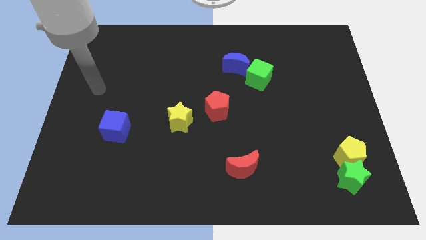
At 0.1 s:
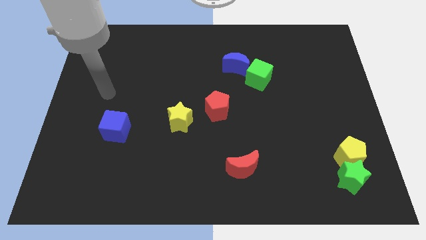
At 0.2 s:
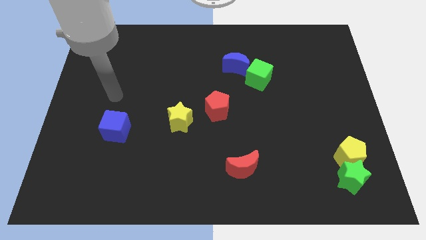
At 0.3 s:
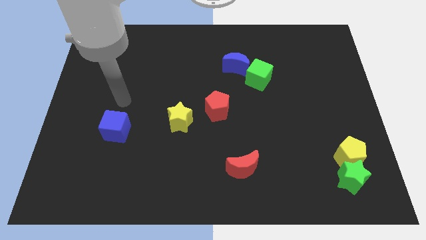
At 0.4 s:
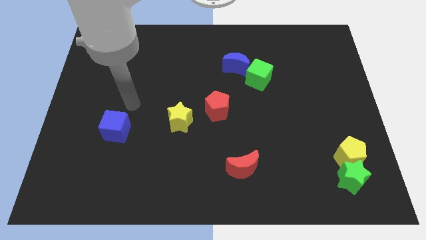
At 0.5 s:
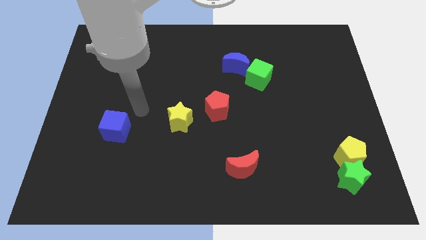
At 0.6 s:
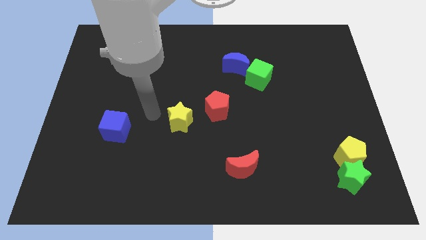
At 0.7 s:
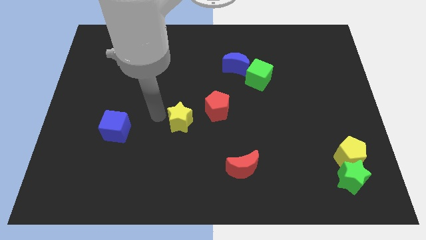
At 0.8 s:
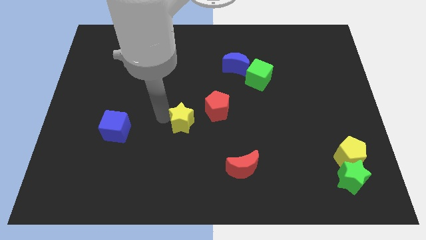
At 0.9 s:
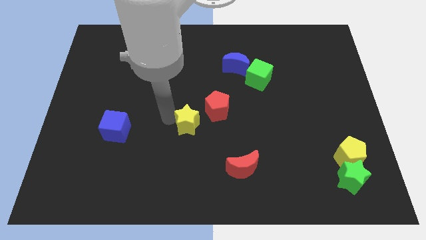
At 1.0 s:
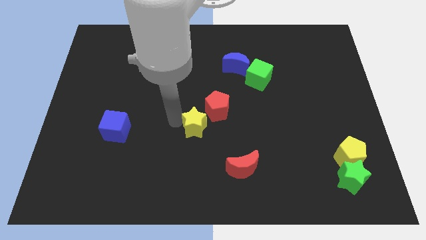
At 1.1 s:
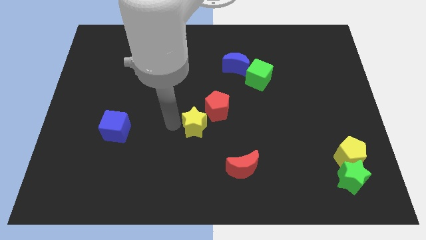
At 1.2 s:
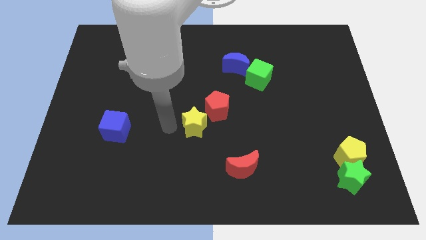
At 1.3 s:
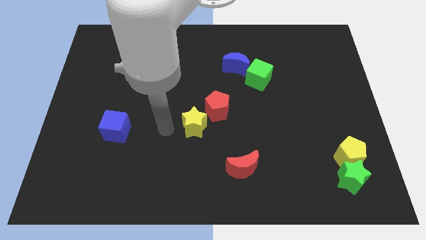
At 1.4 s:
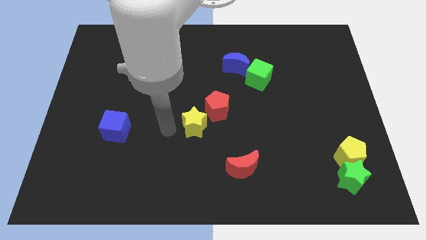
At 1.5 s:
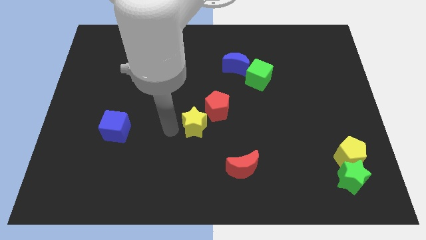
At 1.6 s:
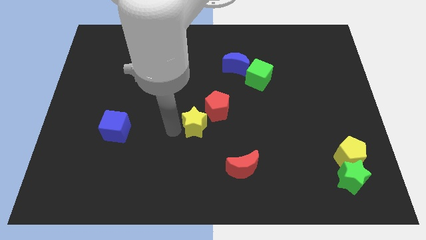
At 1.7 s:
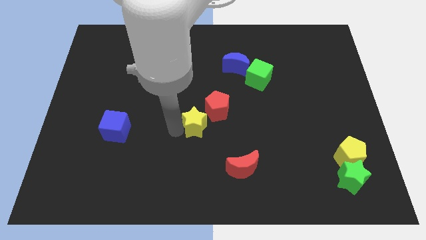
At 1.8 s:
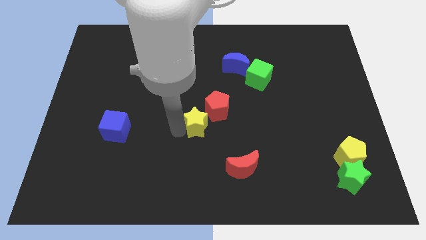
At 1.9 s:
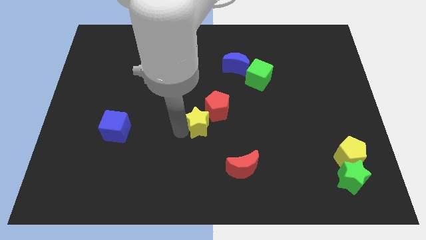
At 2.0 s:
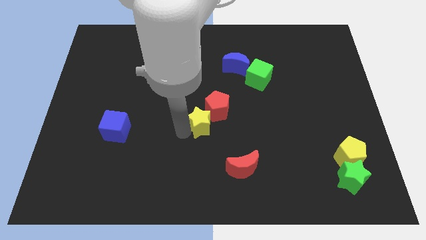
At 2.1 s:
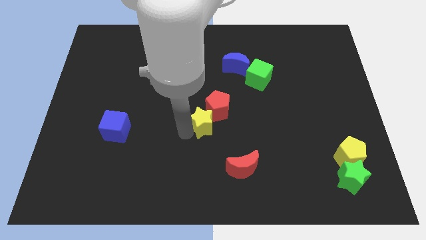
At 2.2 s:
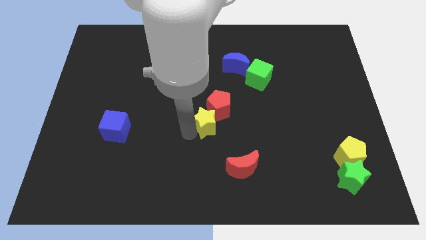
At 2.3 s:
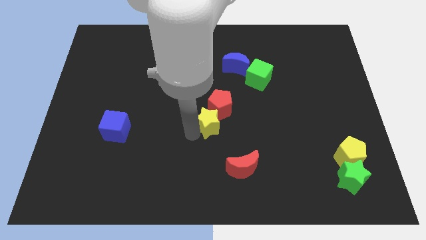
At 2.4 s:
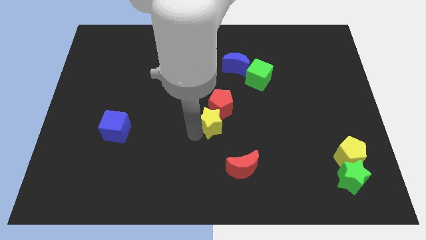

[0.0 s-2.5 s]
slide the yellow star right a little

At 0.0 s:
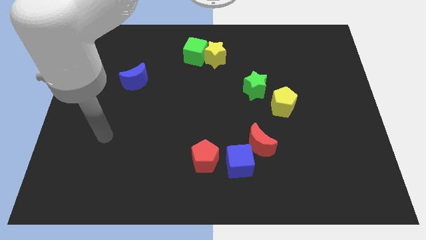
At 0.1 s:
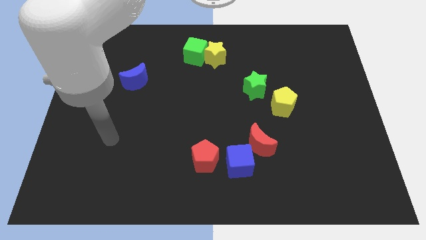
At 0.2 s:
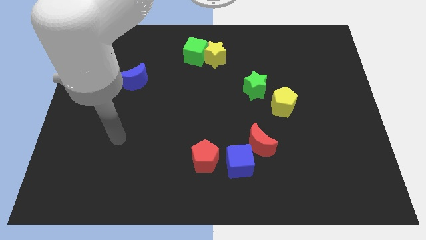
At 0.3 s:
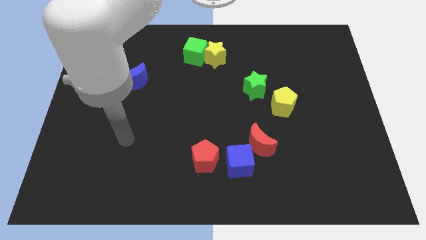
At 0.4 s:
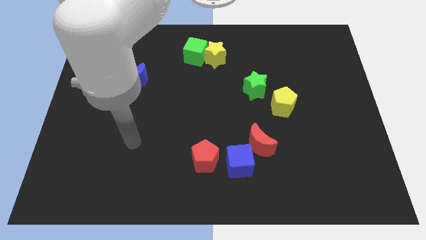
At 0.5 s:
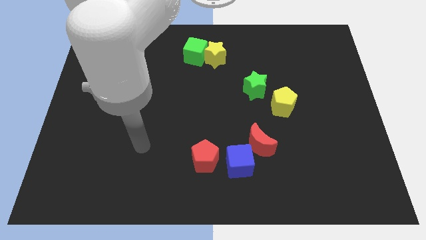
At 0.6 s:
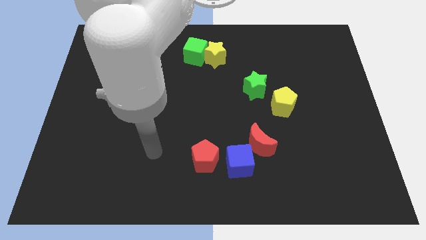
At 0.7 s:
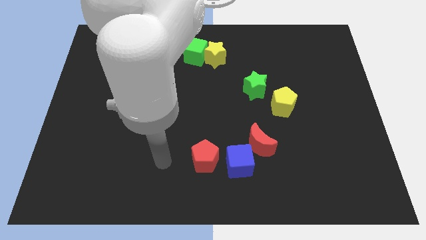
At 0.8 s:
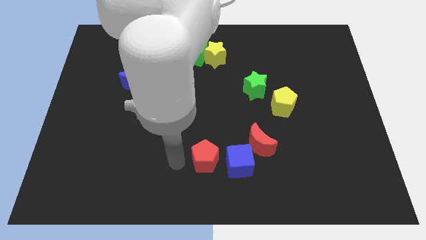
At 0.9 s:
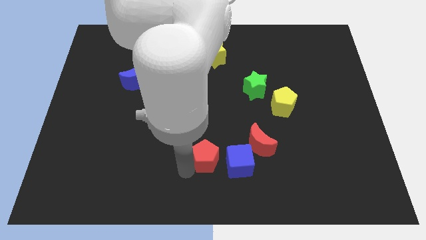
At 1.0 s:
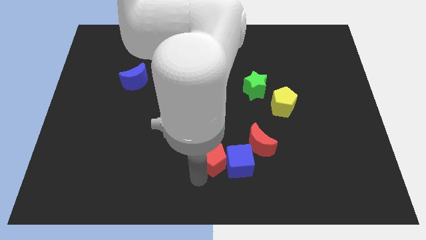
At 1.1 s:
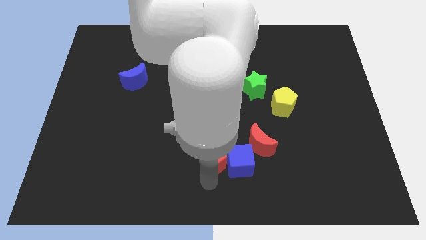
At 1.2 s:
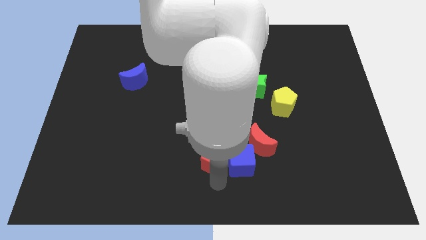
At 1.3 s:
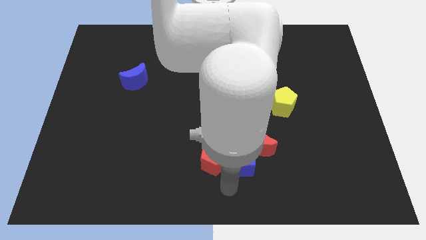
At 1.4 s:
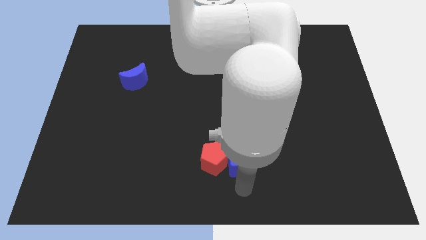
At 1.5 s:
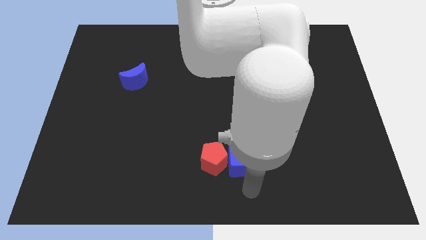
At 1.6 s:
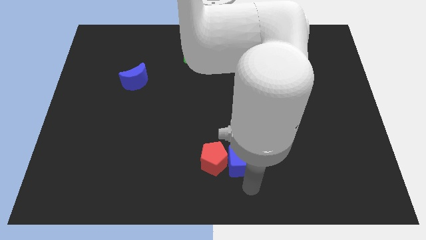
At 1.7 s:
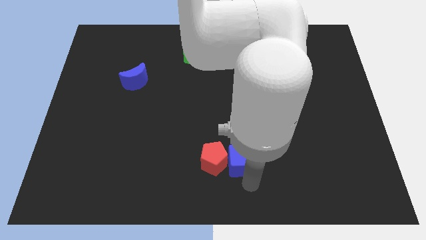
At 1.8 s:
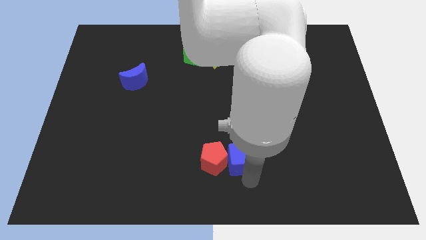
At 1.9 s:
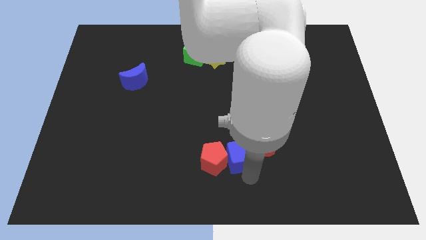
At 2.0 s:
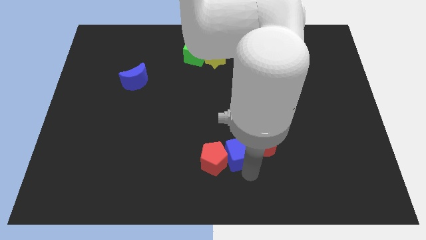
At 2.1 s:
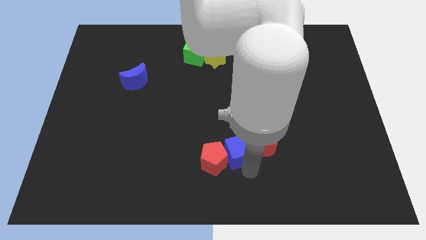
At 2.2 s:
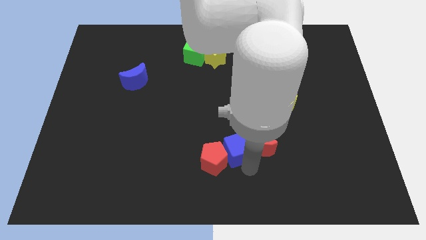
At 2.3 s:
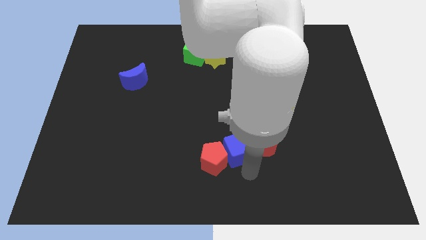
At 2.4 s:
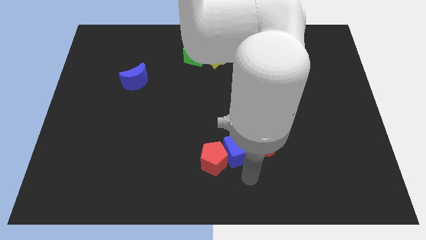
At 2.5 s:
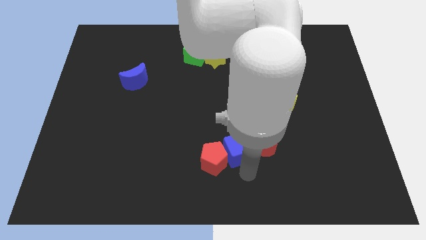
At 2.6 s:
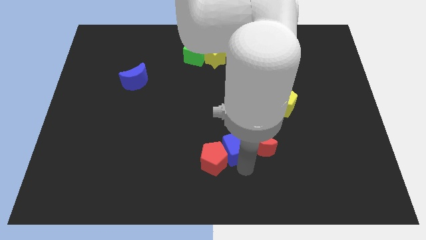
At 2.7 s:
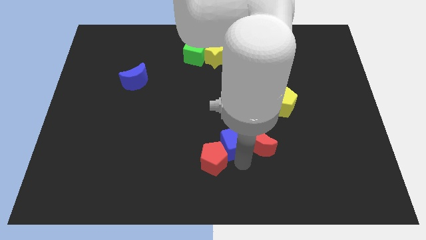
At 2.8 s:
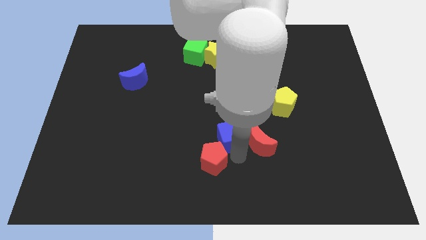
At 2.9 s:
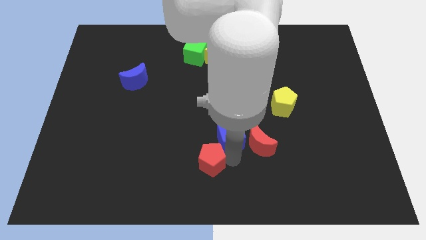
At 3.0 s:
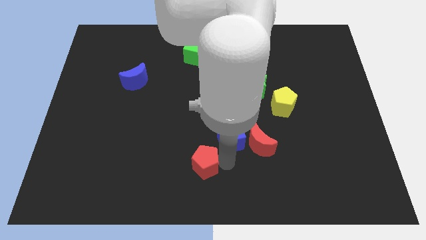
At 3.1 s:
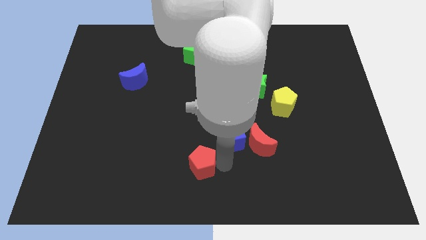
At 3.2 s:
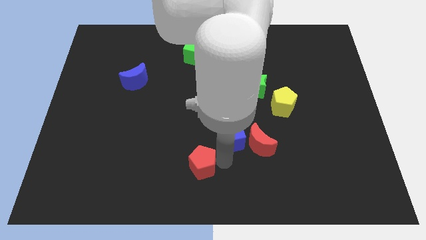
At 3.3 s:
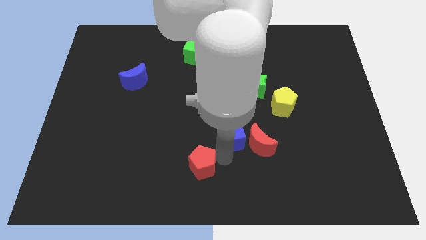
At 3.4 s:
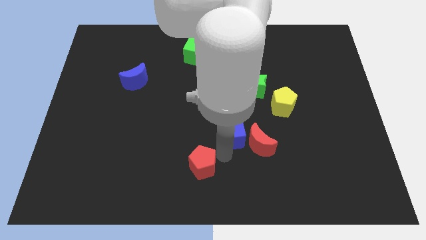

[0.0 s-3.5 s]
slightly slide the blue cube up

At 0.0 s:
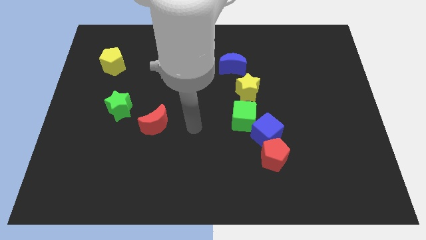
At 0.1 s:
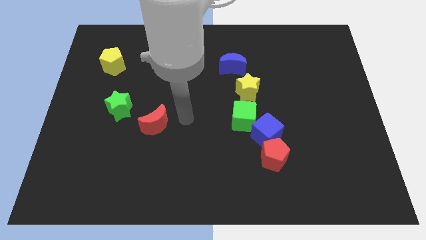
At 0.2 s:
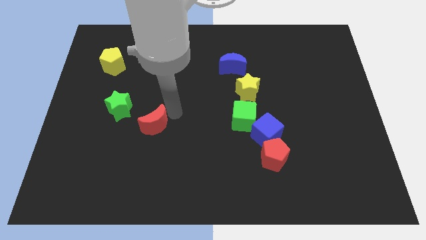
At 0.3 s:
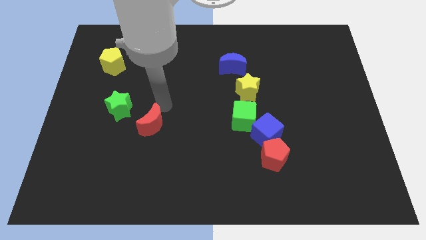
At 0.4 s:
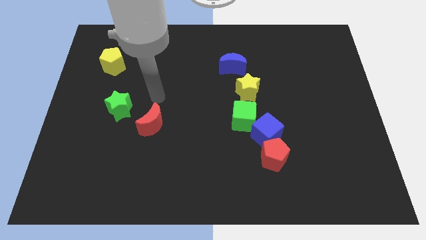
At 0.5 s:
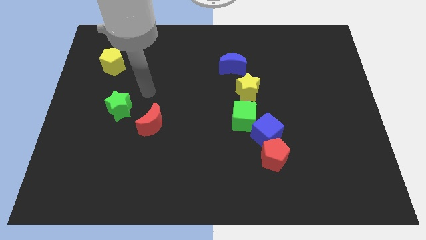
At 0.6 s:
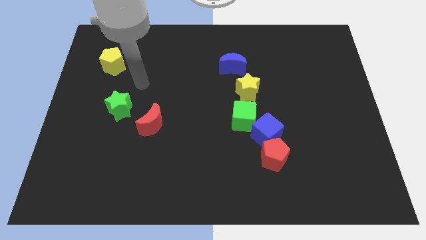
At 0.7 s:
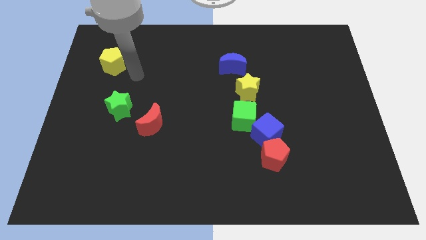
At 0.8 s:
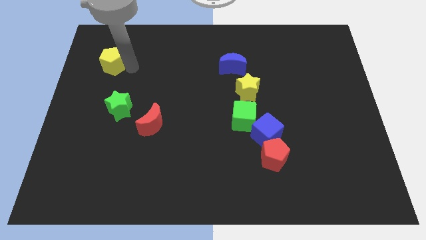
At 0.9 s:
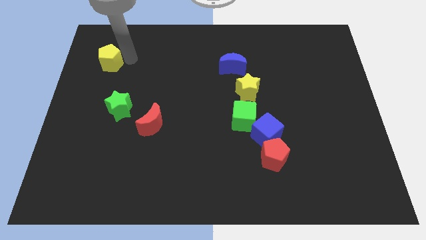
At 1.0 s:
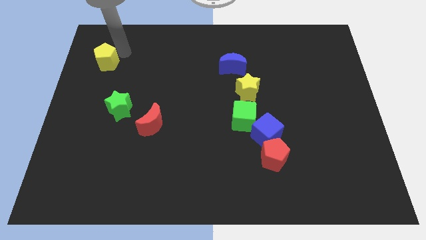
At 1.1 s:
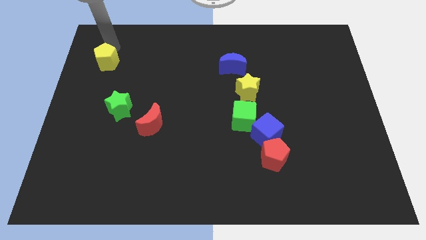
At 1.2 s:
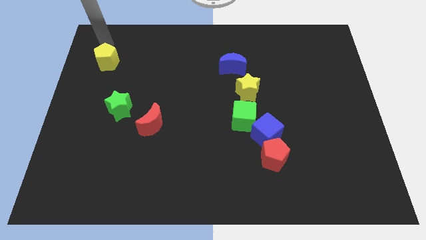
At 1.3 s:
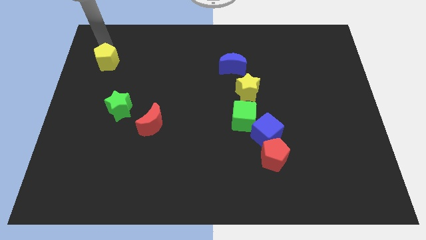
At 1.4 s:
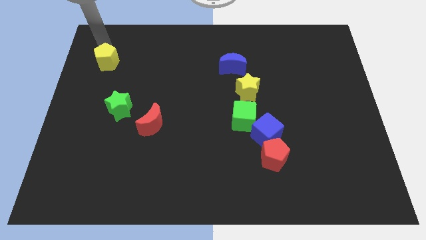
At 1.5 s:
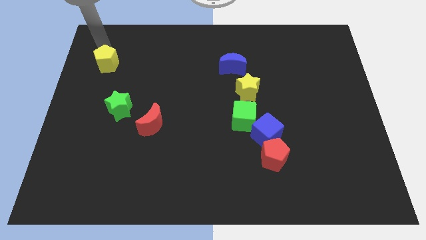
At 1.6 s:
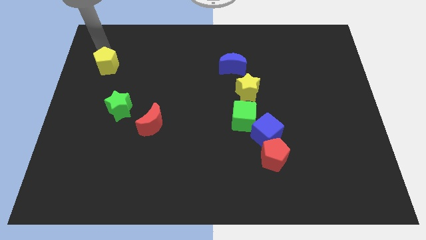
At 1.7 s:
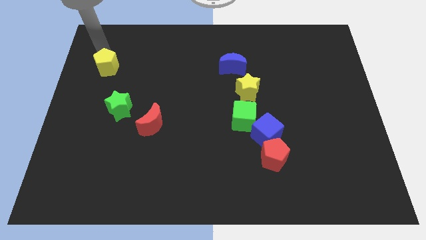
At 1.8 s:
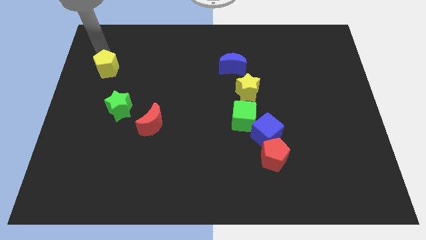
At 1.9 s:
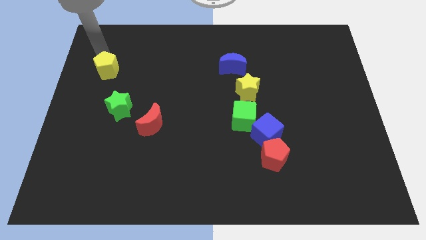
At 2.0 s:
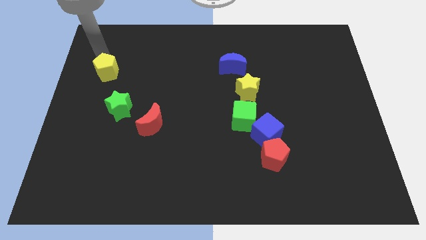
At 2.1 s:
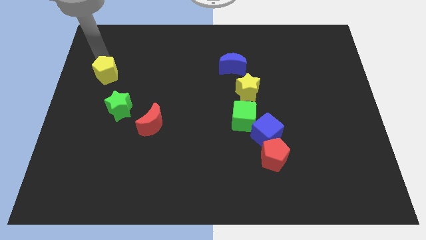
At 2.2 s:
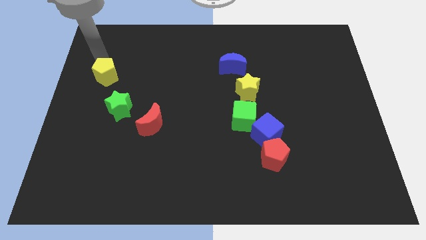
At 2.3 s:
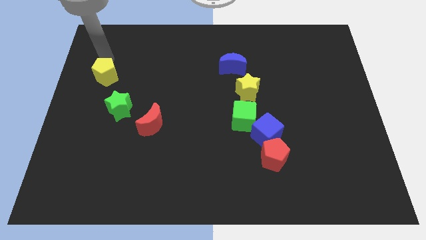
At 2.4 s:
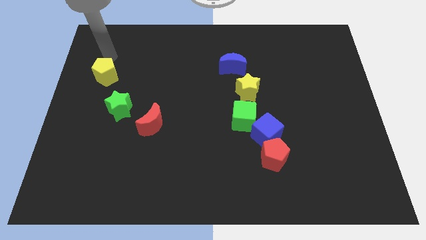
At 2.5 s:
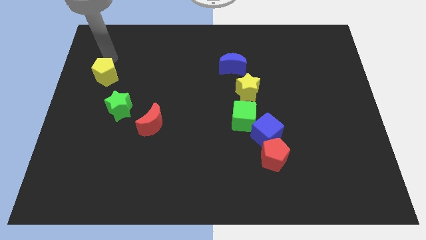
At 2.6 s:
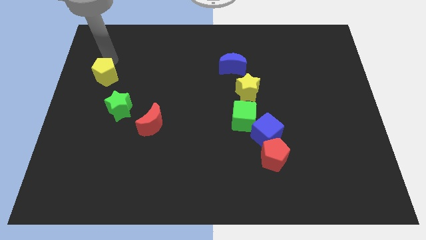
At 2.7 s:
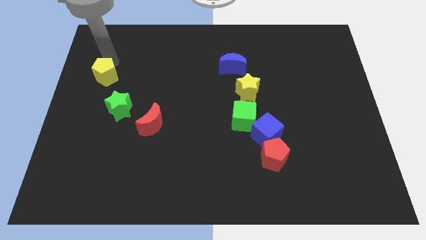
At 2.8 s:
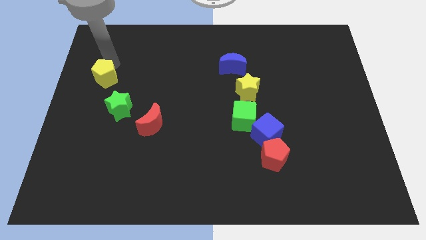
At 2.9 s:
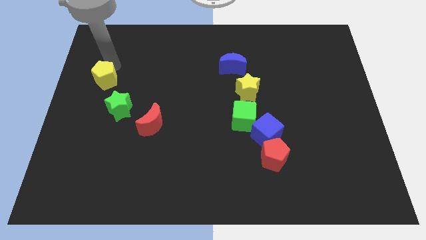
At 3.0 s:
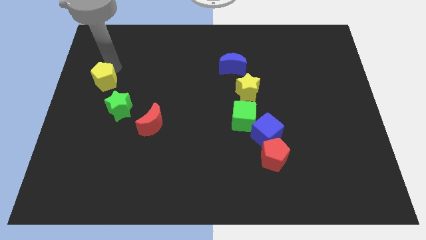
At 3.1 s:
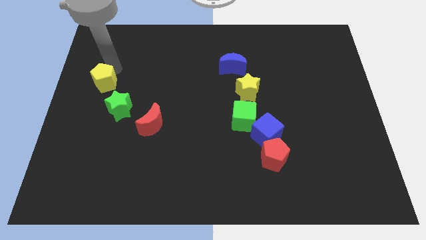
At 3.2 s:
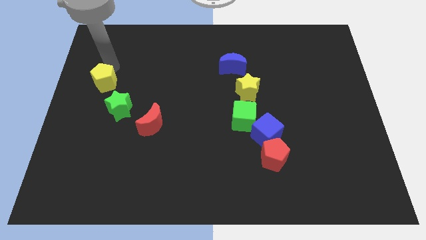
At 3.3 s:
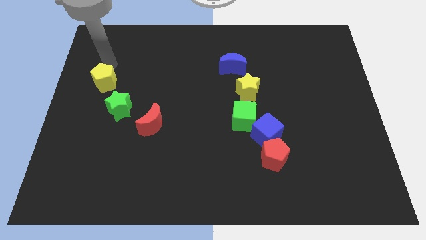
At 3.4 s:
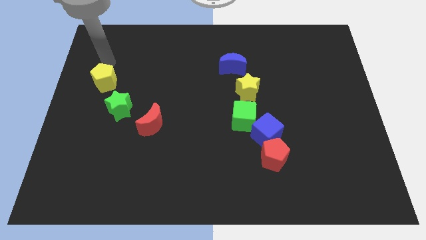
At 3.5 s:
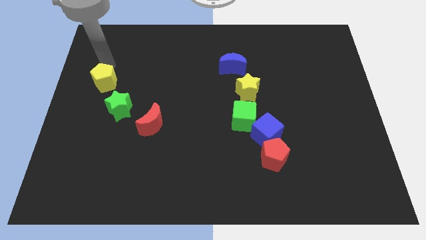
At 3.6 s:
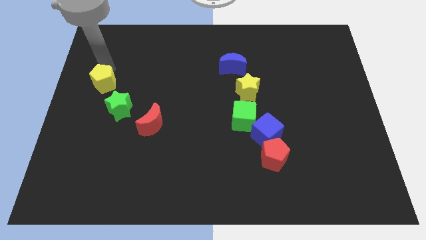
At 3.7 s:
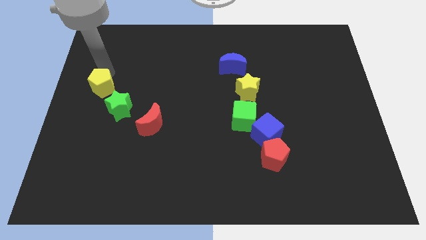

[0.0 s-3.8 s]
move the yellow pentagon a bit down
